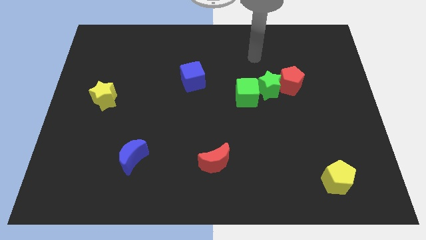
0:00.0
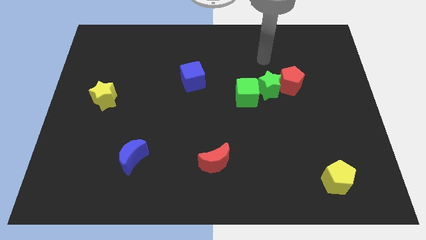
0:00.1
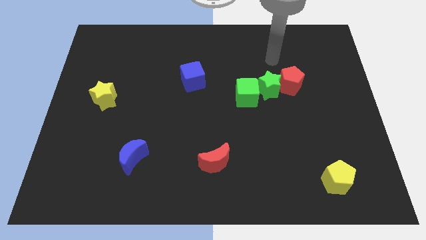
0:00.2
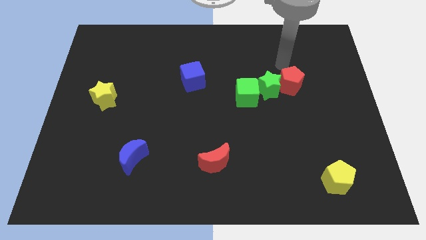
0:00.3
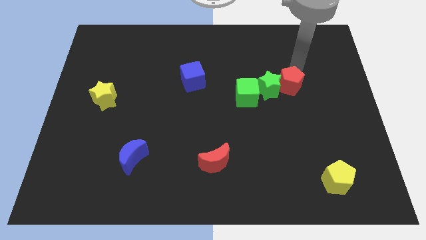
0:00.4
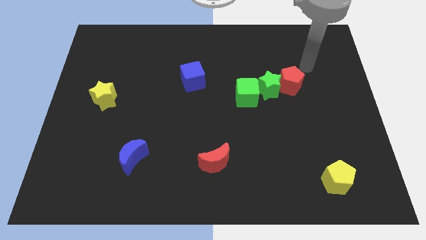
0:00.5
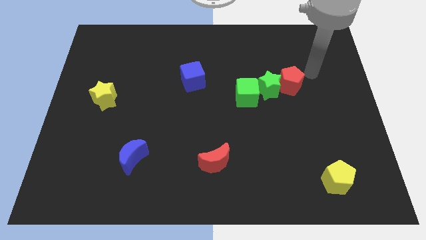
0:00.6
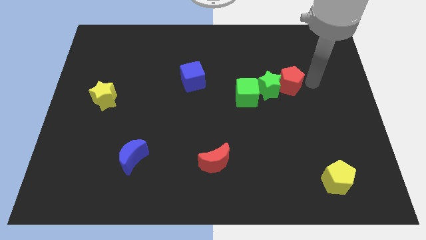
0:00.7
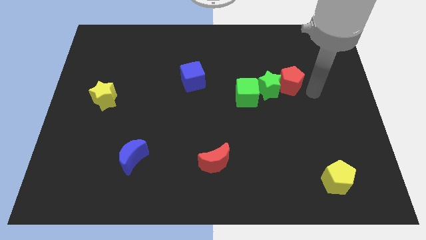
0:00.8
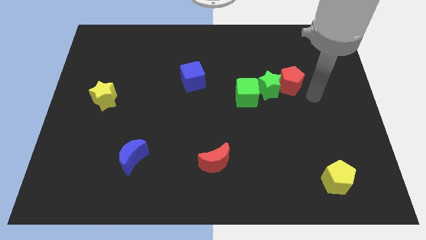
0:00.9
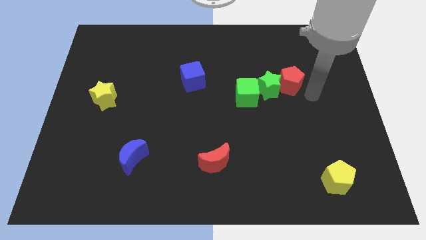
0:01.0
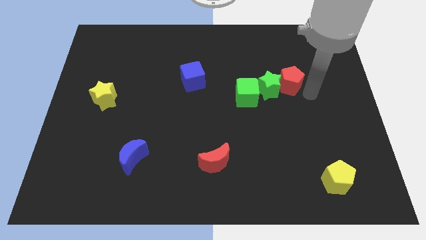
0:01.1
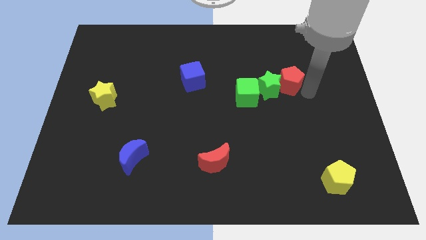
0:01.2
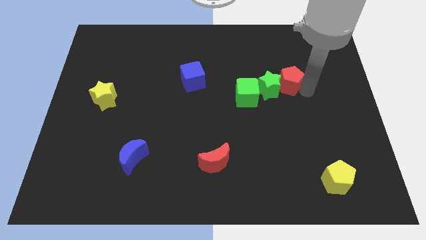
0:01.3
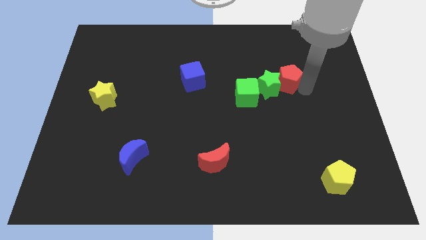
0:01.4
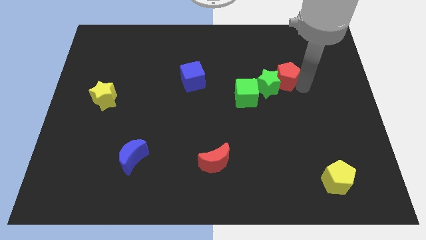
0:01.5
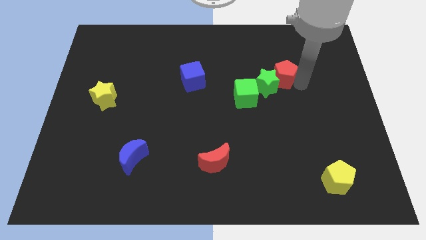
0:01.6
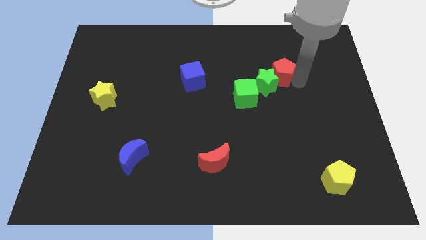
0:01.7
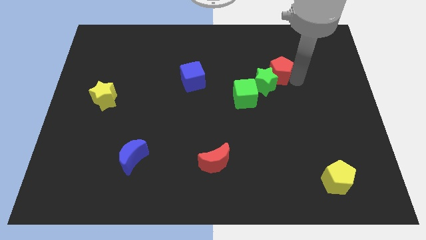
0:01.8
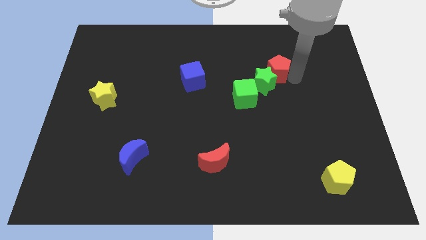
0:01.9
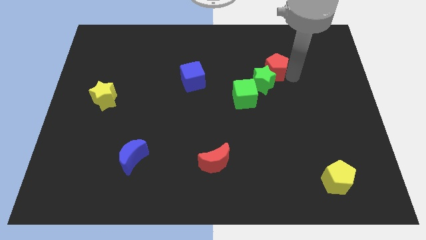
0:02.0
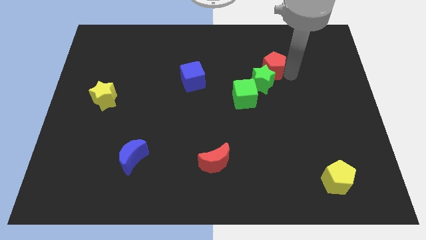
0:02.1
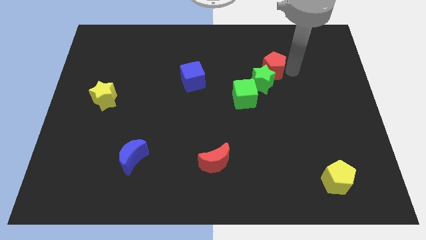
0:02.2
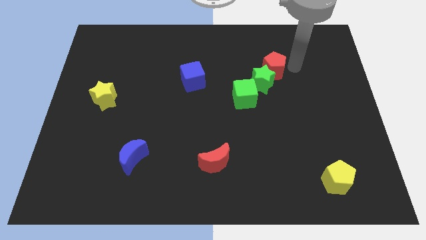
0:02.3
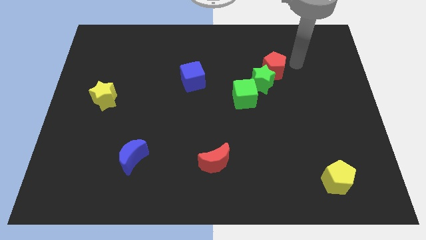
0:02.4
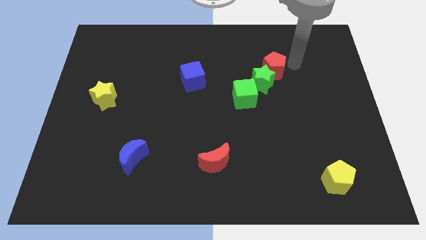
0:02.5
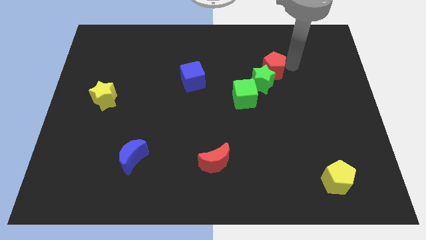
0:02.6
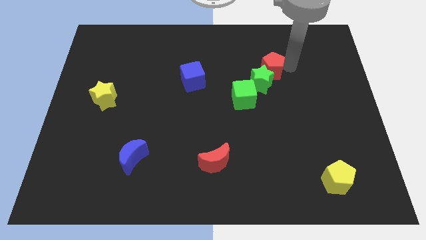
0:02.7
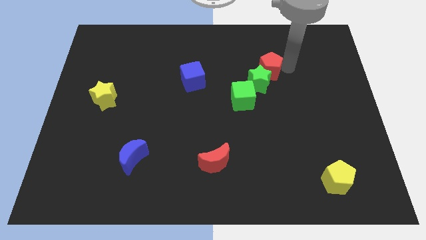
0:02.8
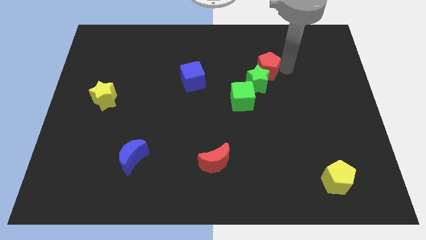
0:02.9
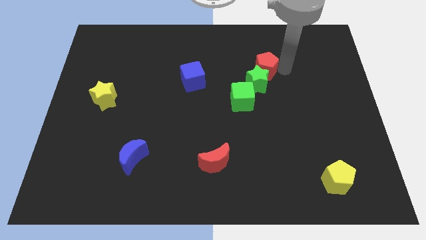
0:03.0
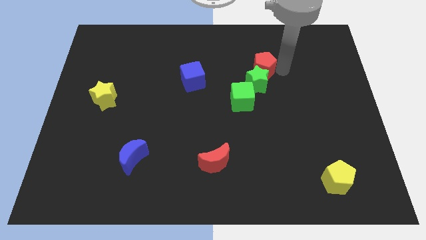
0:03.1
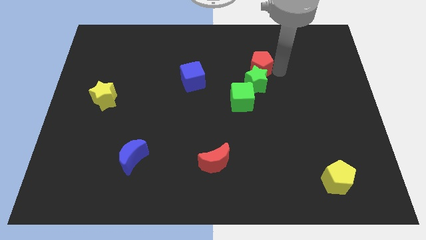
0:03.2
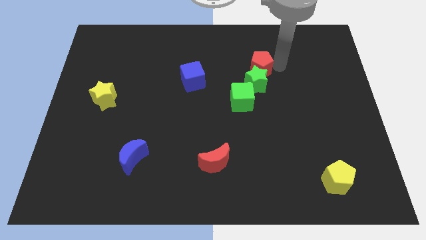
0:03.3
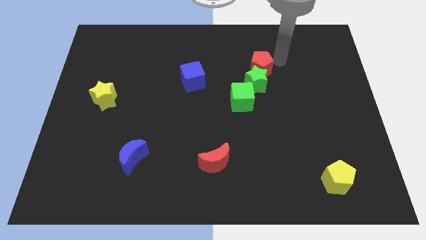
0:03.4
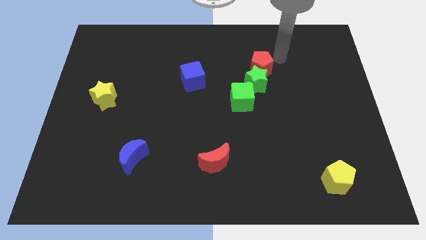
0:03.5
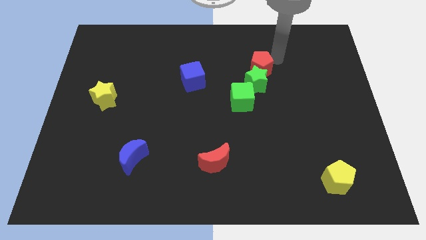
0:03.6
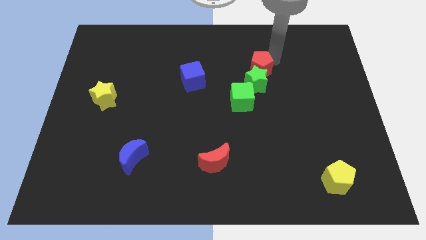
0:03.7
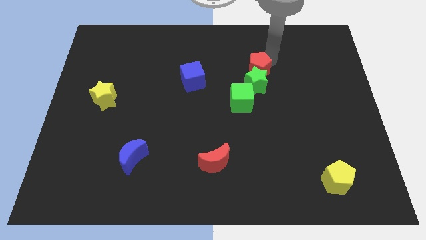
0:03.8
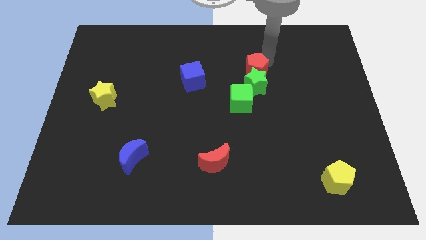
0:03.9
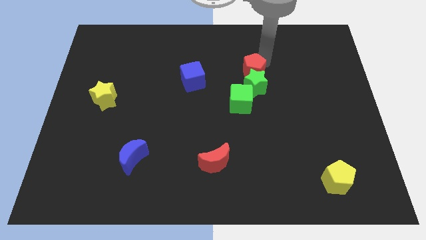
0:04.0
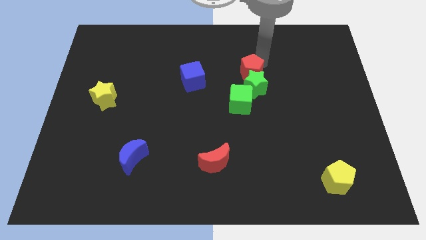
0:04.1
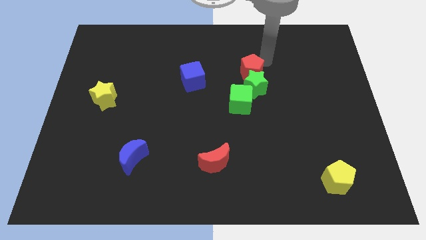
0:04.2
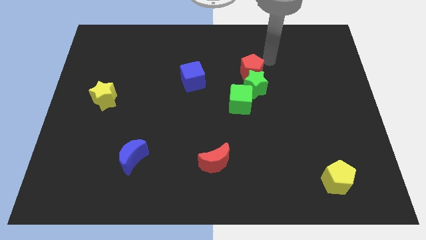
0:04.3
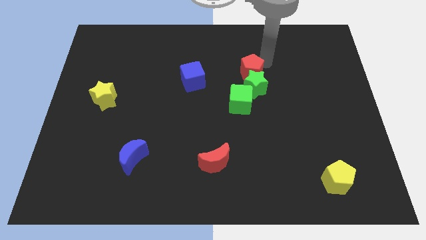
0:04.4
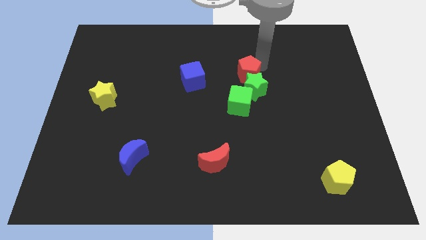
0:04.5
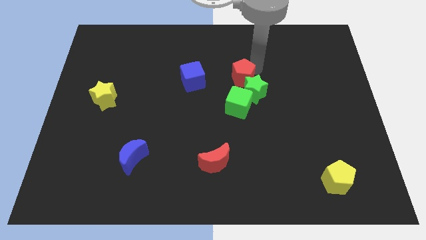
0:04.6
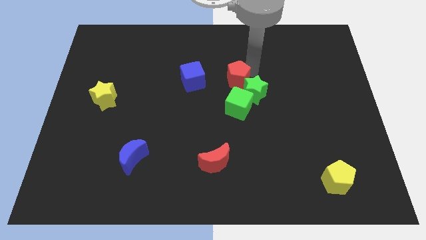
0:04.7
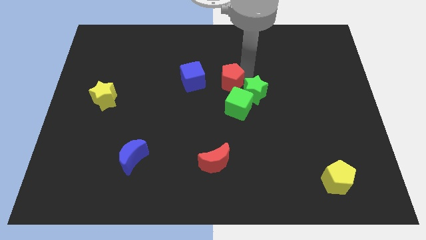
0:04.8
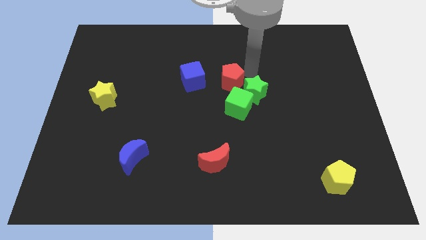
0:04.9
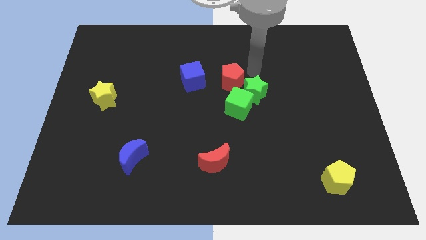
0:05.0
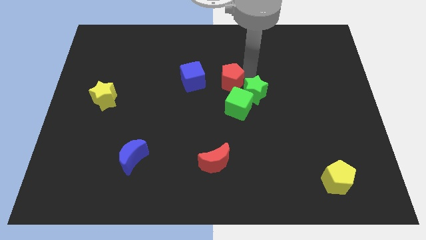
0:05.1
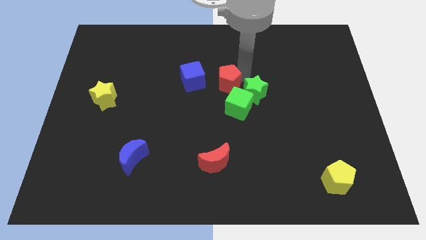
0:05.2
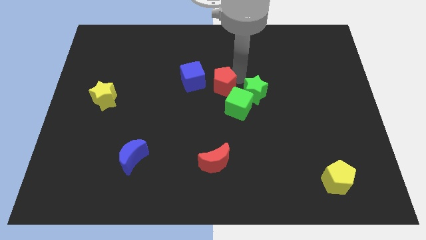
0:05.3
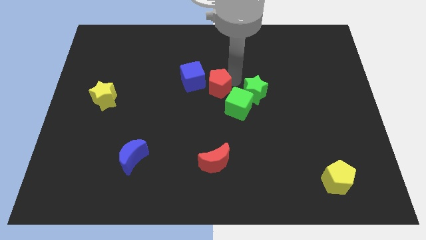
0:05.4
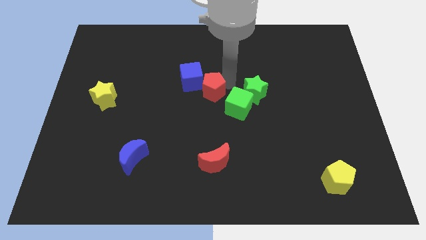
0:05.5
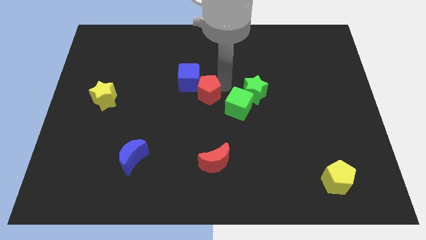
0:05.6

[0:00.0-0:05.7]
push the red pentagon to the left

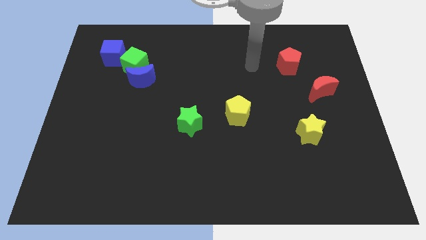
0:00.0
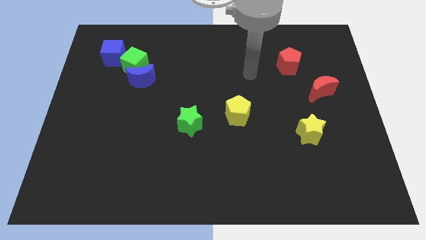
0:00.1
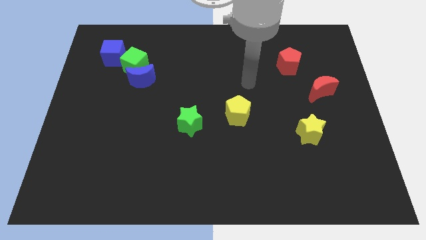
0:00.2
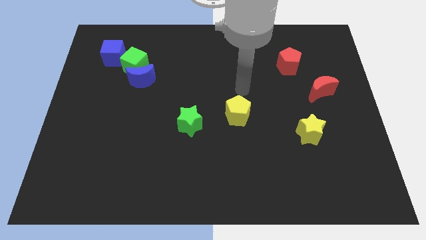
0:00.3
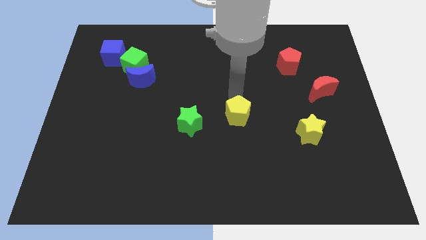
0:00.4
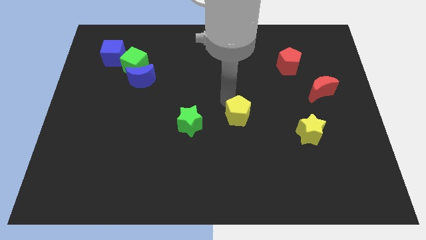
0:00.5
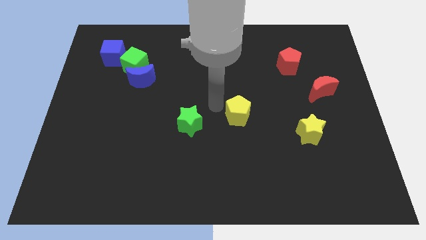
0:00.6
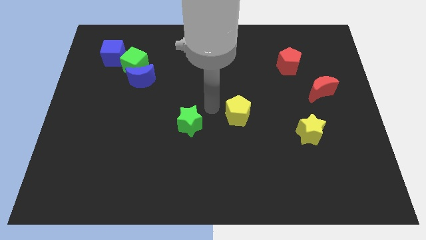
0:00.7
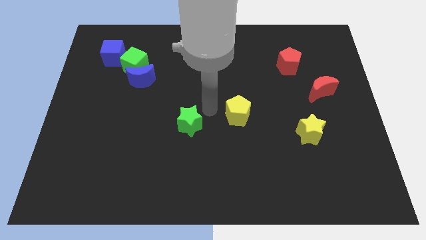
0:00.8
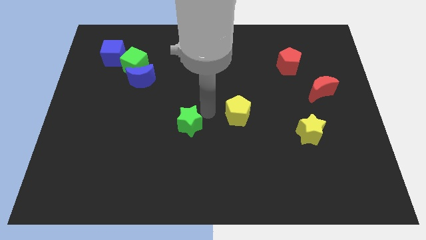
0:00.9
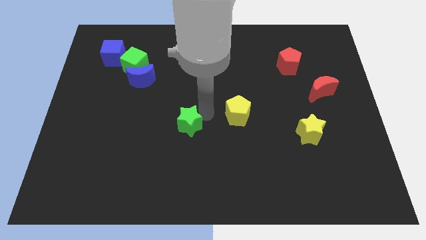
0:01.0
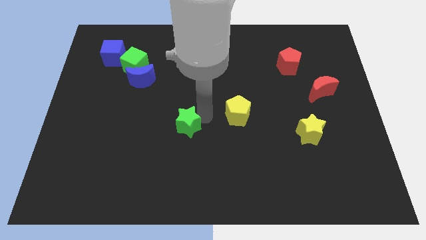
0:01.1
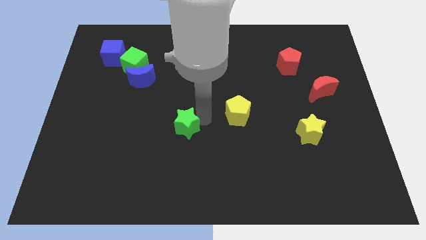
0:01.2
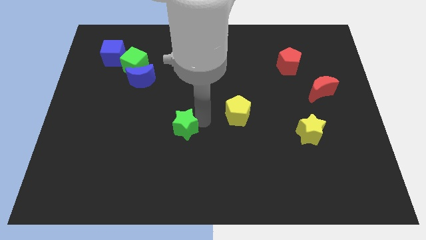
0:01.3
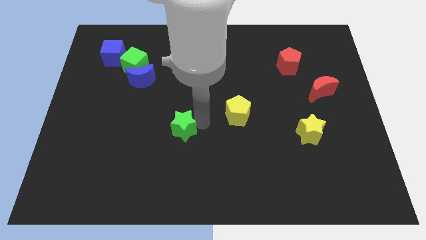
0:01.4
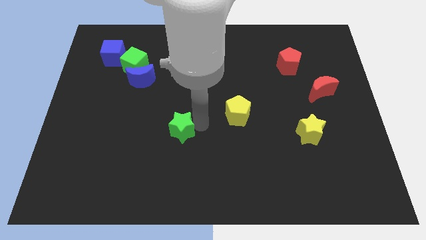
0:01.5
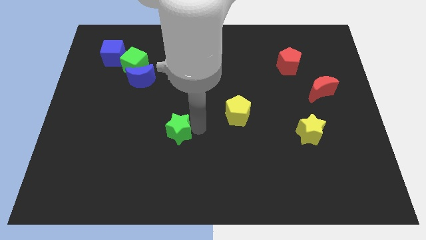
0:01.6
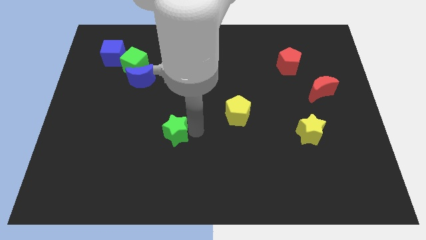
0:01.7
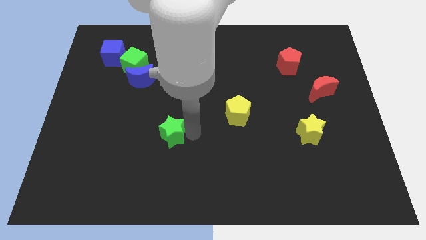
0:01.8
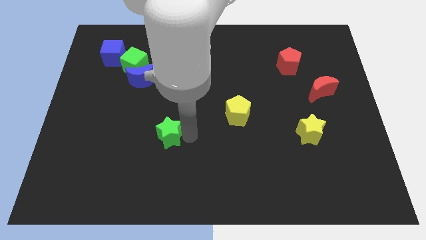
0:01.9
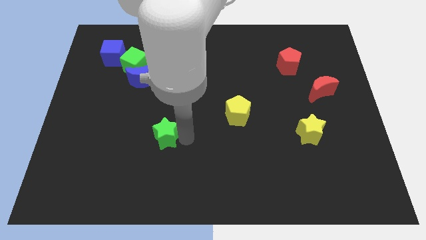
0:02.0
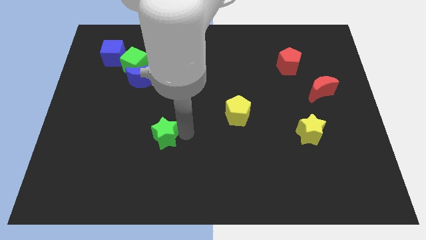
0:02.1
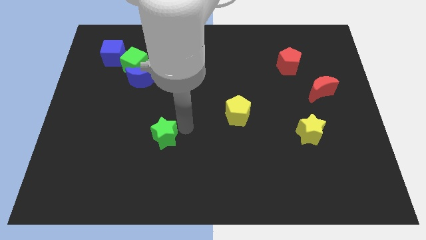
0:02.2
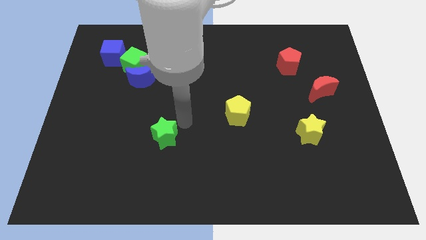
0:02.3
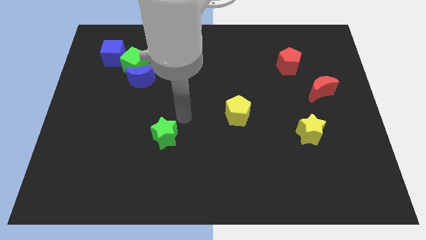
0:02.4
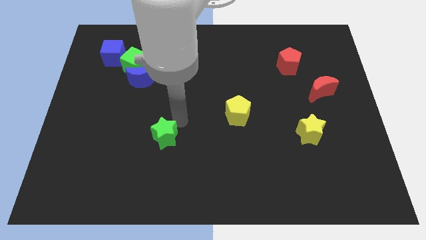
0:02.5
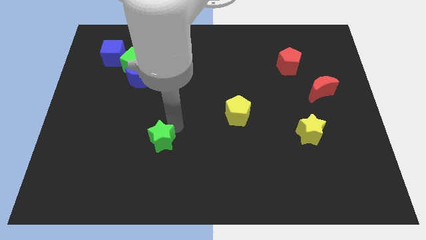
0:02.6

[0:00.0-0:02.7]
slide the green star downwards and left diagonally a little
